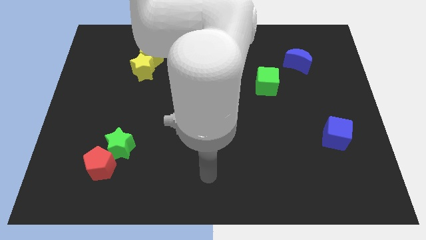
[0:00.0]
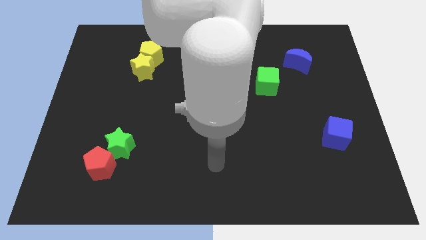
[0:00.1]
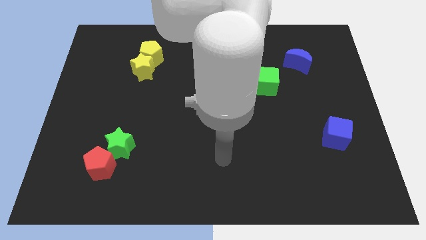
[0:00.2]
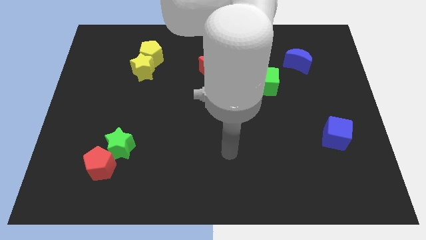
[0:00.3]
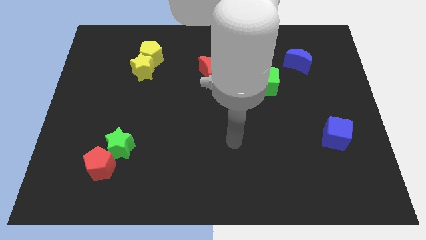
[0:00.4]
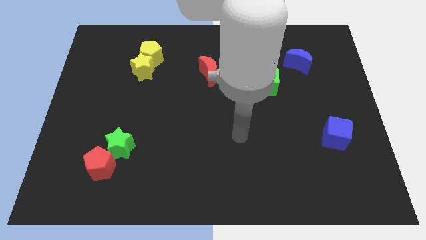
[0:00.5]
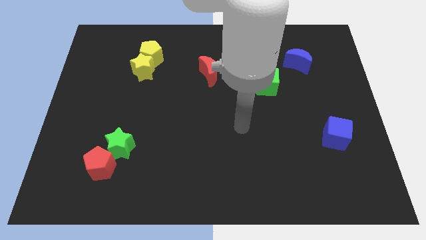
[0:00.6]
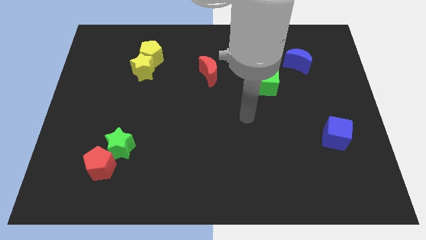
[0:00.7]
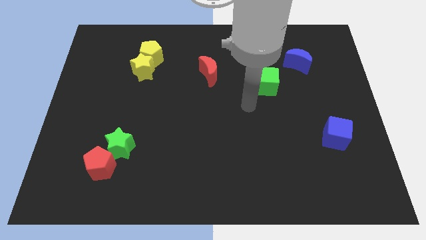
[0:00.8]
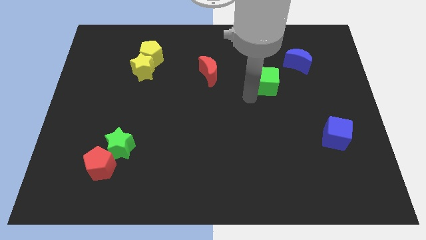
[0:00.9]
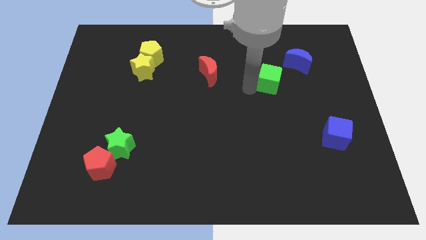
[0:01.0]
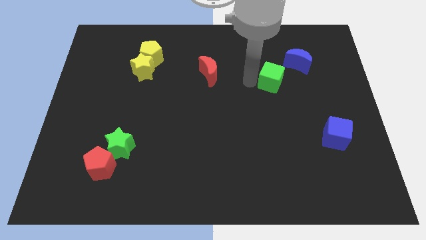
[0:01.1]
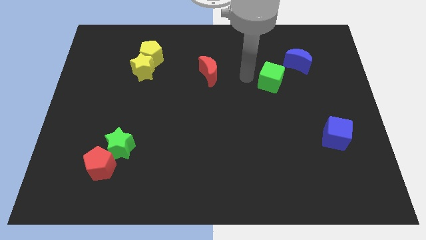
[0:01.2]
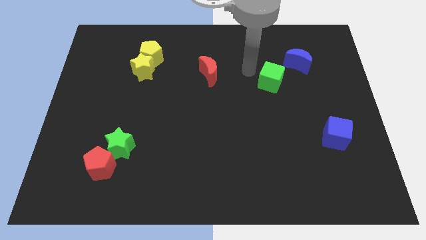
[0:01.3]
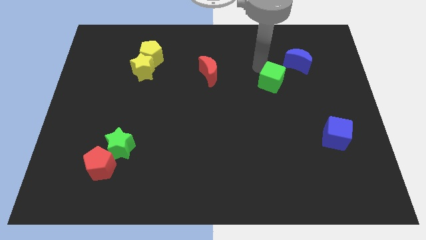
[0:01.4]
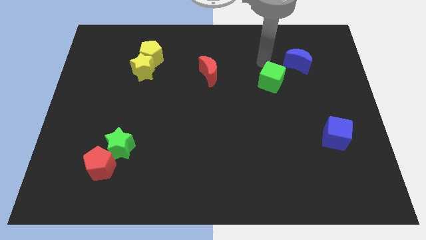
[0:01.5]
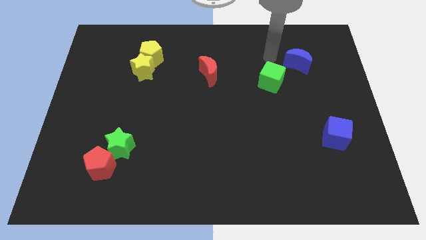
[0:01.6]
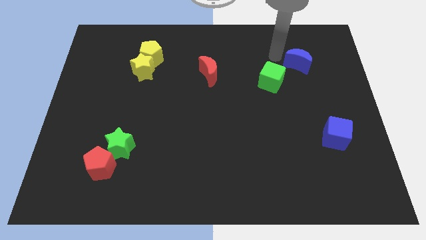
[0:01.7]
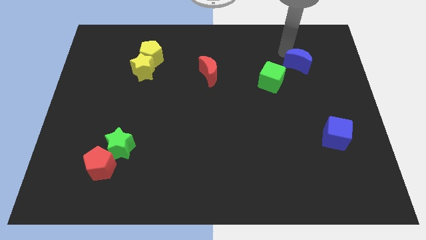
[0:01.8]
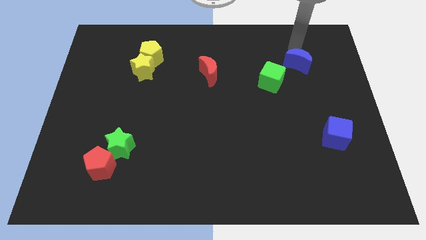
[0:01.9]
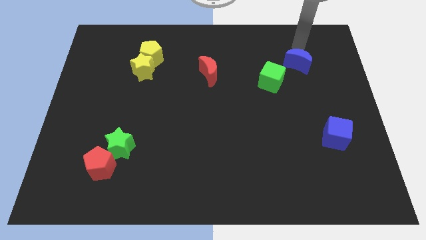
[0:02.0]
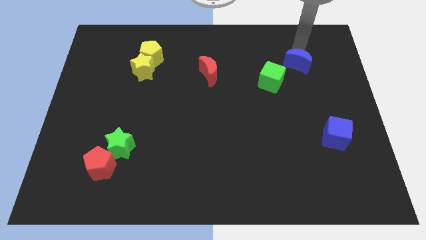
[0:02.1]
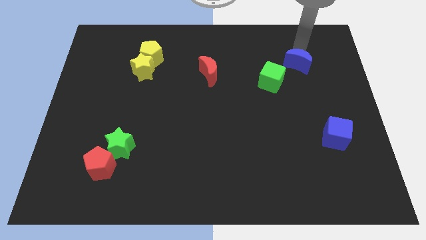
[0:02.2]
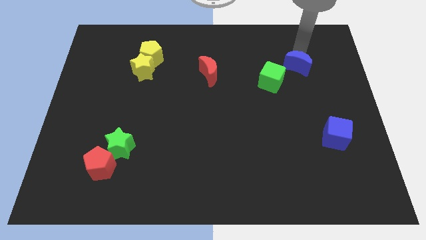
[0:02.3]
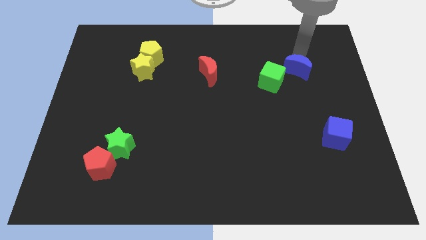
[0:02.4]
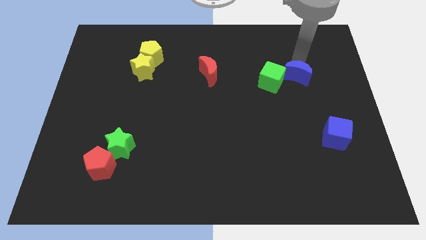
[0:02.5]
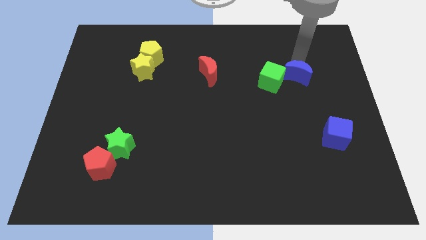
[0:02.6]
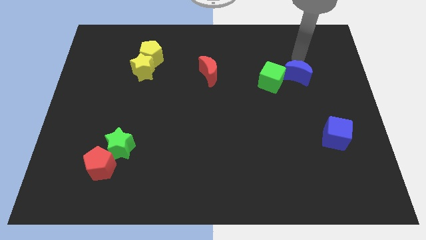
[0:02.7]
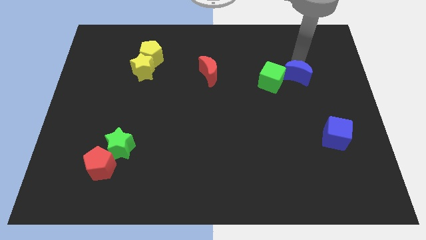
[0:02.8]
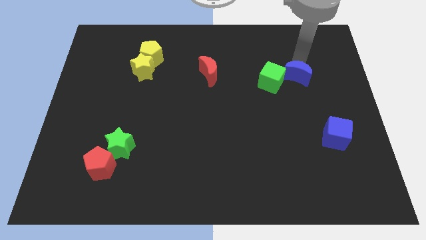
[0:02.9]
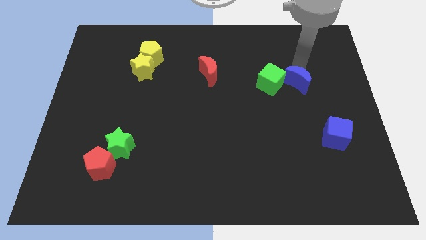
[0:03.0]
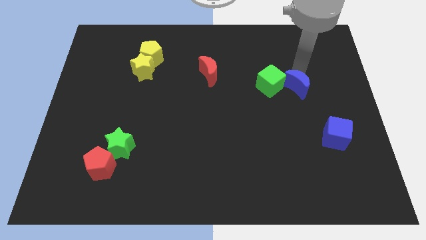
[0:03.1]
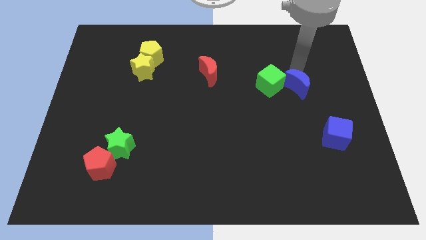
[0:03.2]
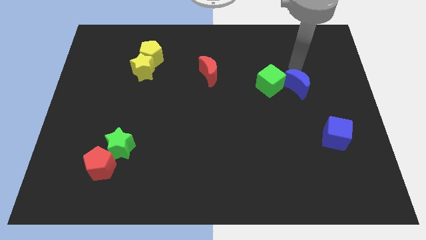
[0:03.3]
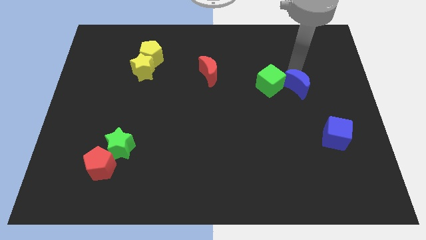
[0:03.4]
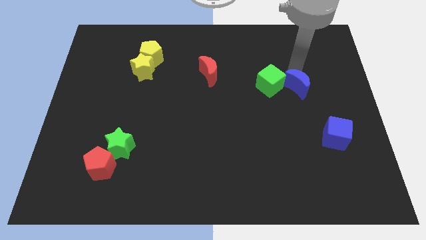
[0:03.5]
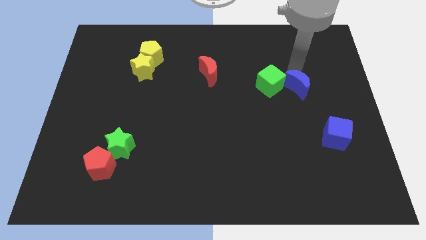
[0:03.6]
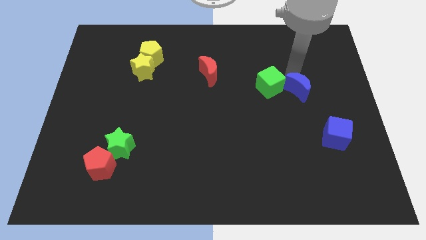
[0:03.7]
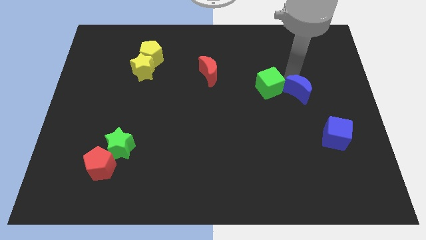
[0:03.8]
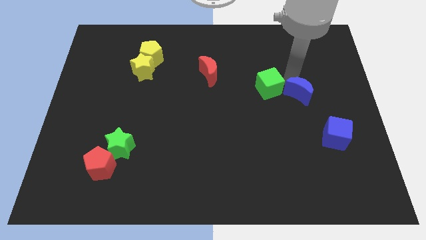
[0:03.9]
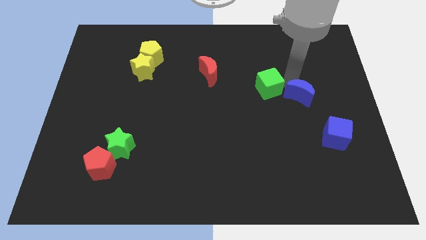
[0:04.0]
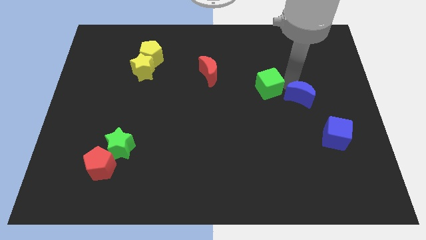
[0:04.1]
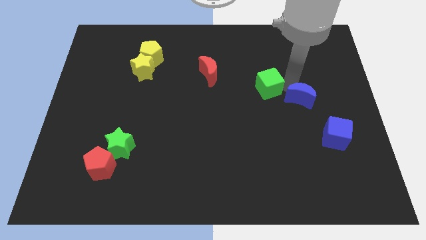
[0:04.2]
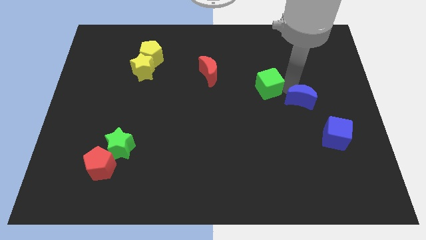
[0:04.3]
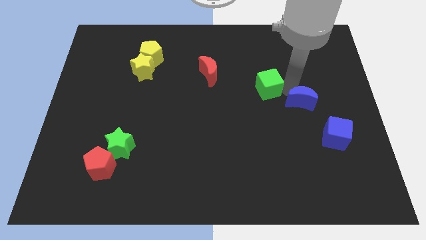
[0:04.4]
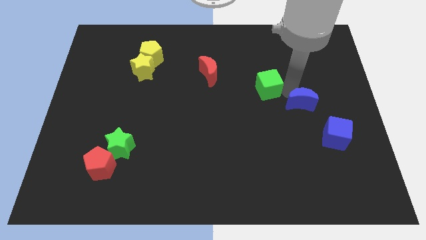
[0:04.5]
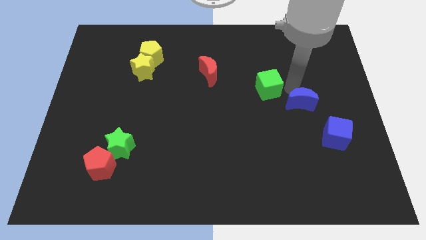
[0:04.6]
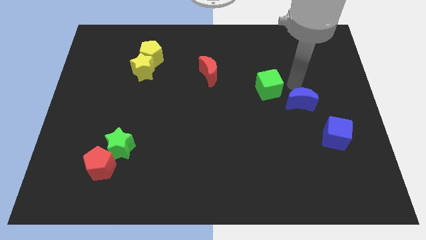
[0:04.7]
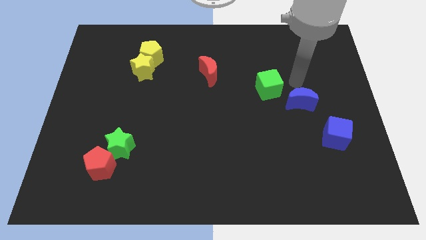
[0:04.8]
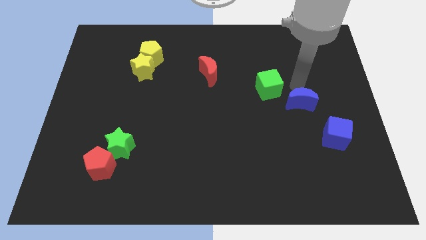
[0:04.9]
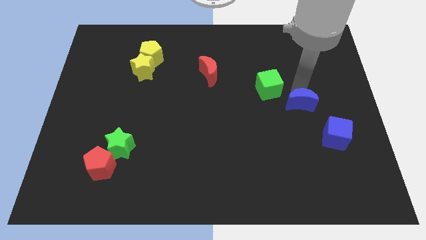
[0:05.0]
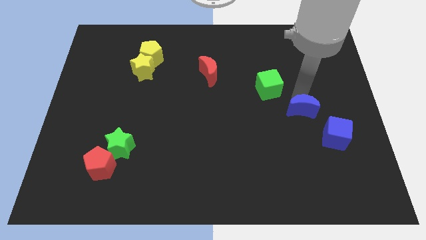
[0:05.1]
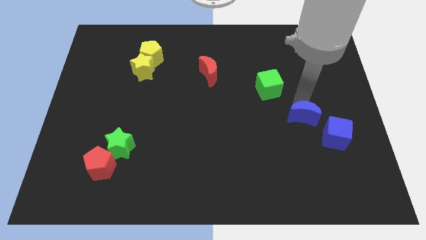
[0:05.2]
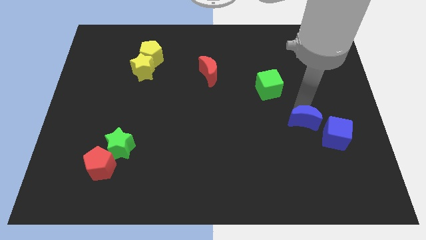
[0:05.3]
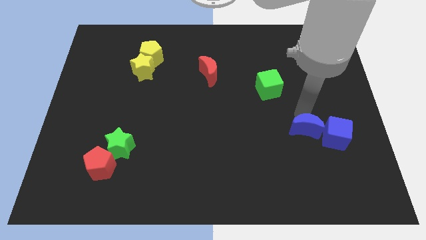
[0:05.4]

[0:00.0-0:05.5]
push the blue moon down

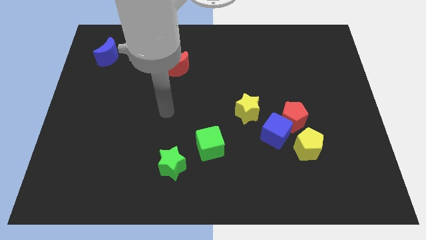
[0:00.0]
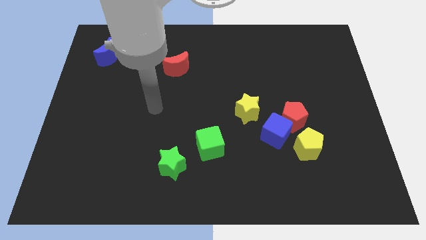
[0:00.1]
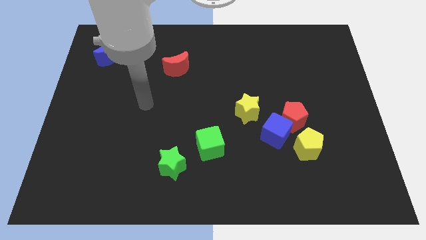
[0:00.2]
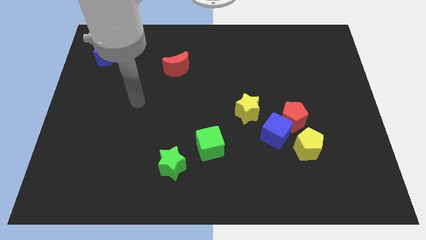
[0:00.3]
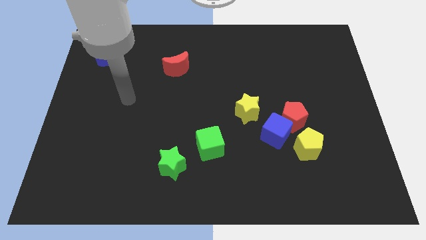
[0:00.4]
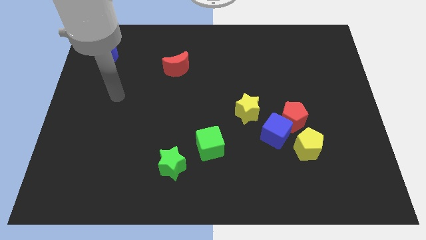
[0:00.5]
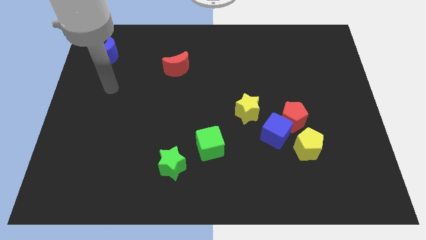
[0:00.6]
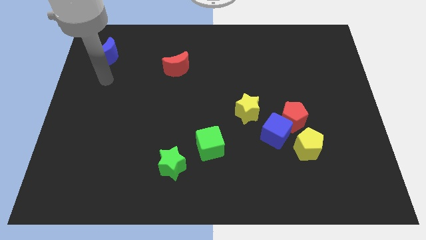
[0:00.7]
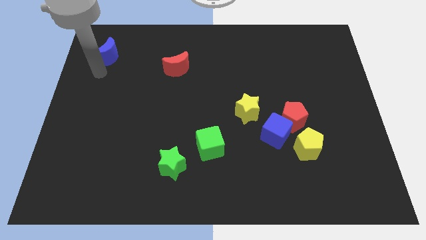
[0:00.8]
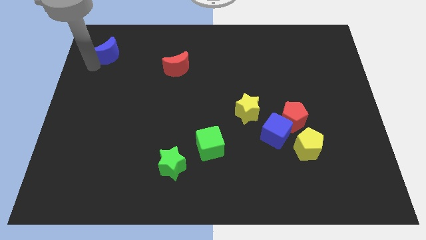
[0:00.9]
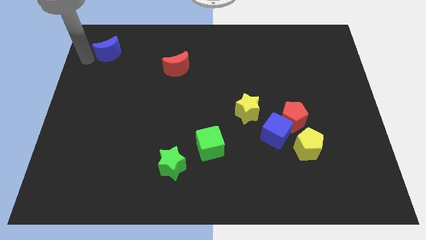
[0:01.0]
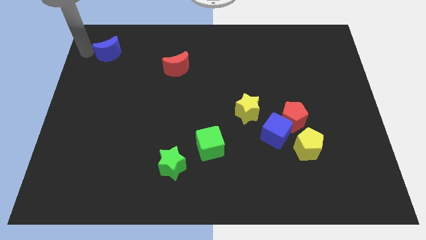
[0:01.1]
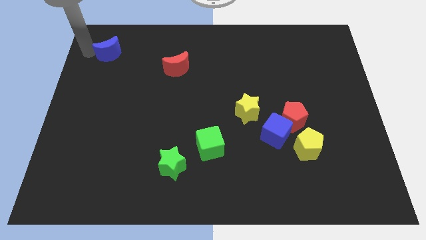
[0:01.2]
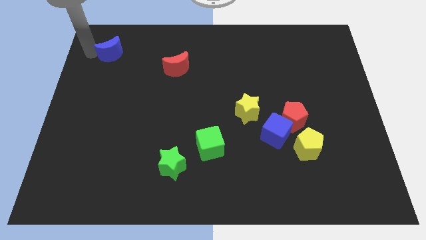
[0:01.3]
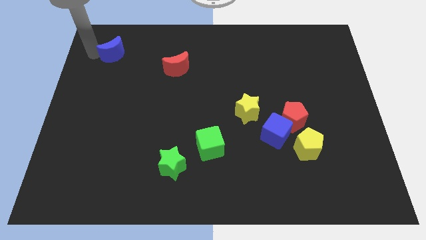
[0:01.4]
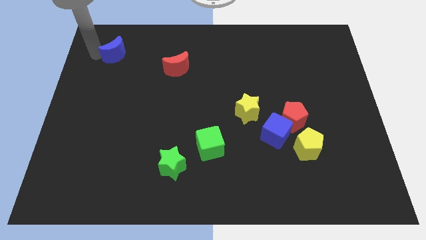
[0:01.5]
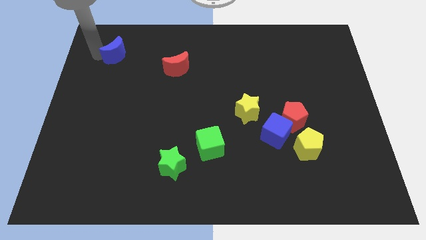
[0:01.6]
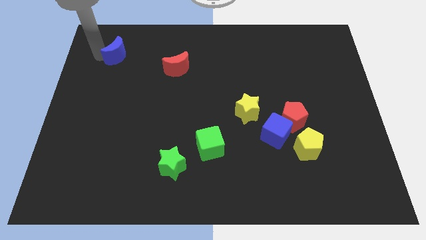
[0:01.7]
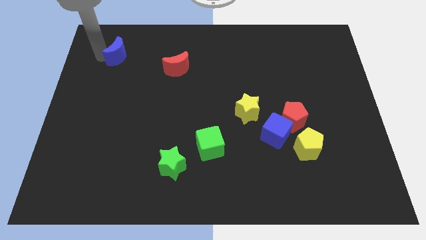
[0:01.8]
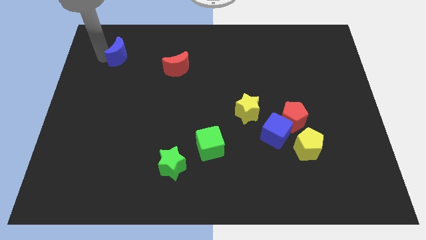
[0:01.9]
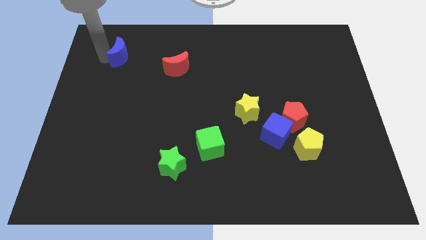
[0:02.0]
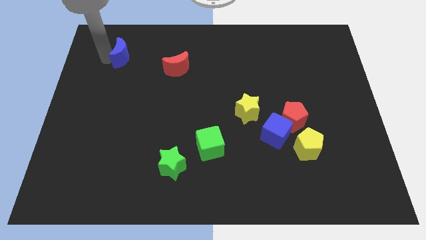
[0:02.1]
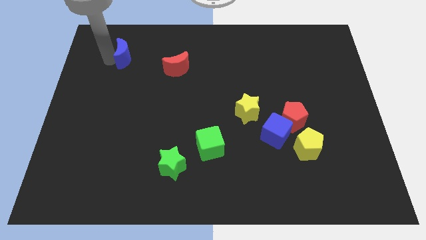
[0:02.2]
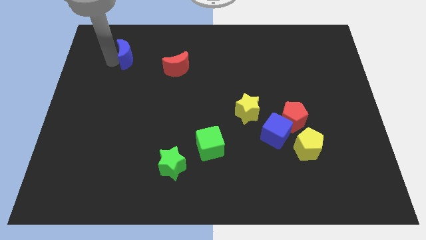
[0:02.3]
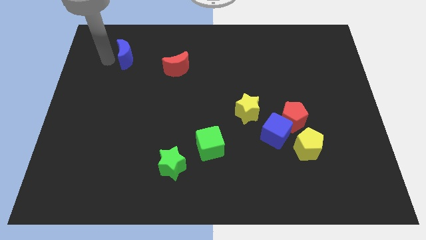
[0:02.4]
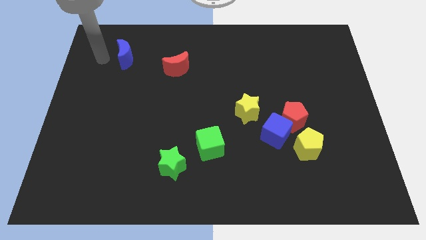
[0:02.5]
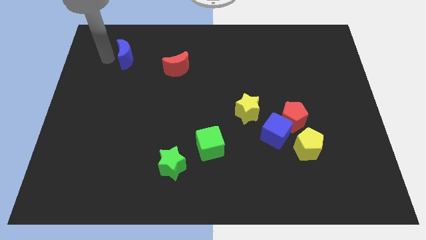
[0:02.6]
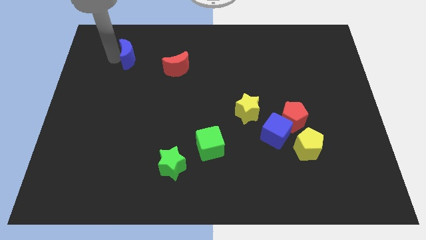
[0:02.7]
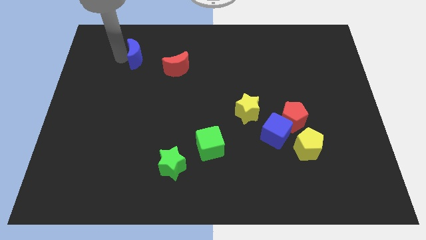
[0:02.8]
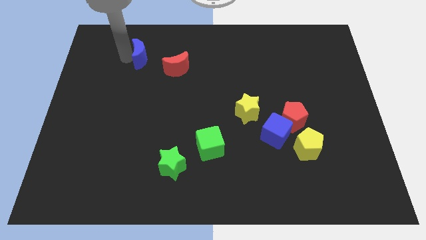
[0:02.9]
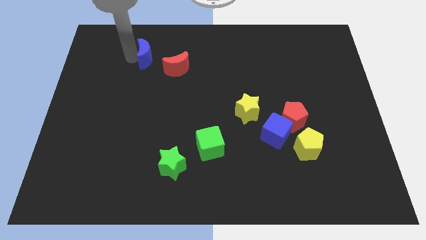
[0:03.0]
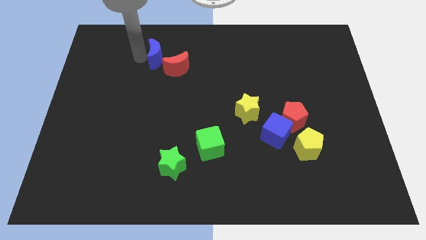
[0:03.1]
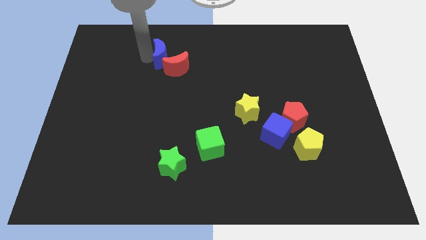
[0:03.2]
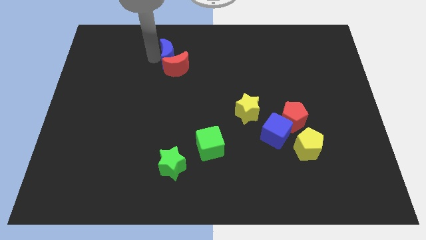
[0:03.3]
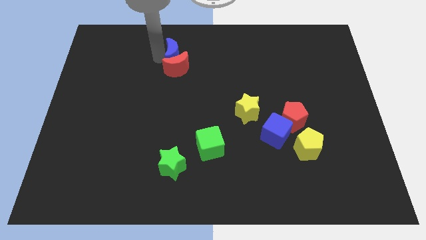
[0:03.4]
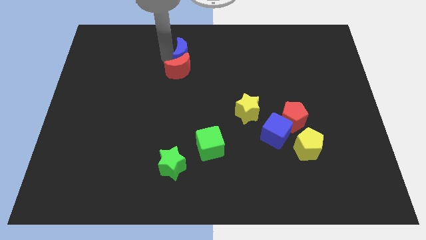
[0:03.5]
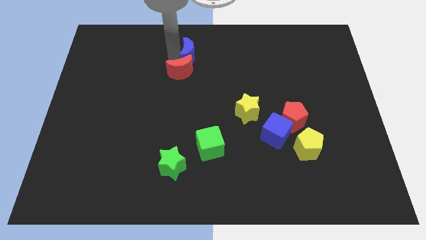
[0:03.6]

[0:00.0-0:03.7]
slide the blue moon right
